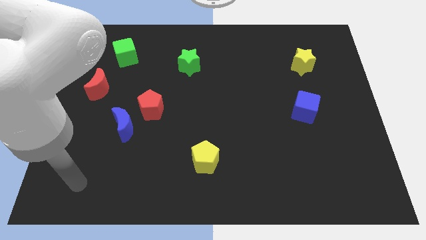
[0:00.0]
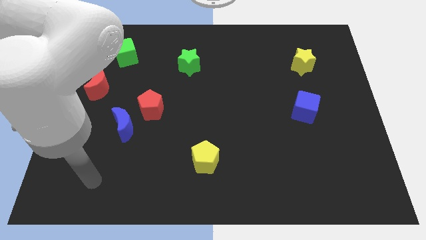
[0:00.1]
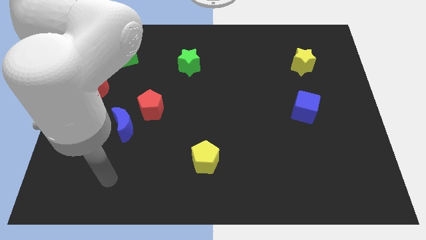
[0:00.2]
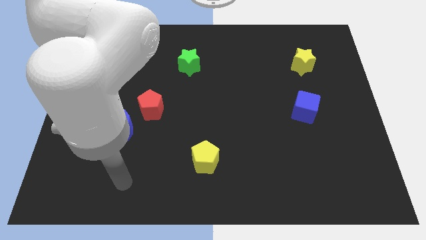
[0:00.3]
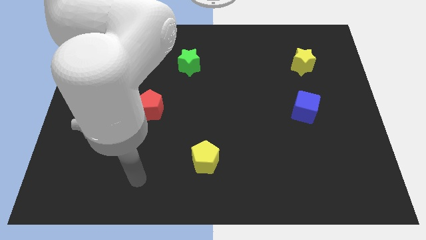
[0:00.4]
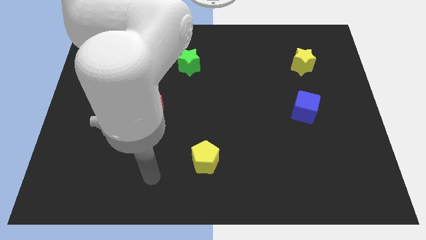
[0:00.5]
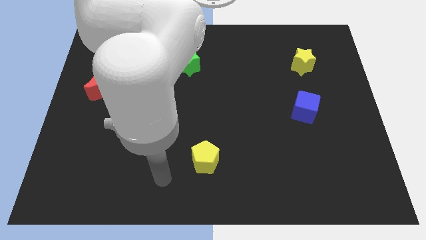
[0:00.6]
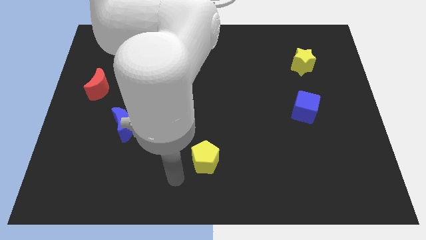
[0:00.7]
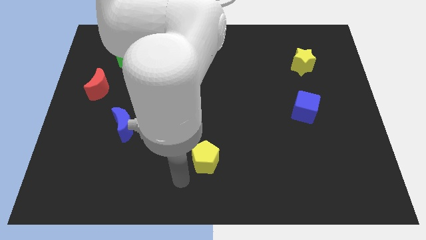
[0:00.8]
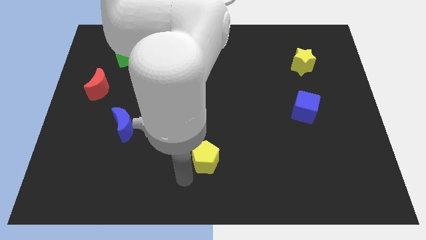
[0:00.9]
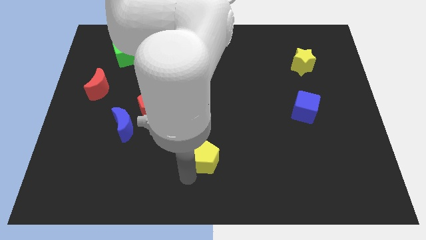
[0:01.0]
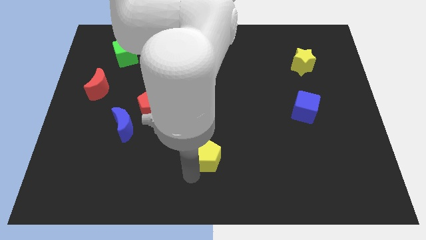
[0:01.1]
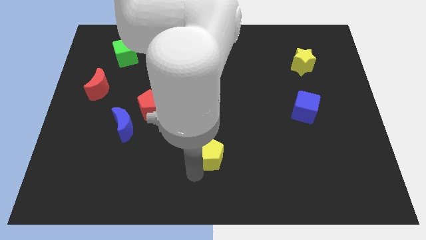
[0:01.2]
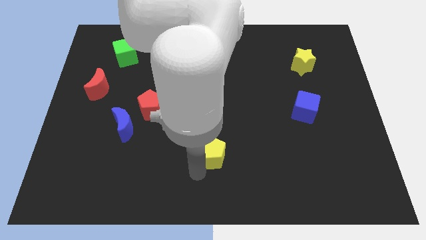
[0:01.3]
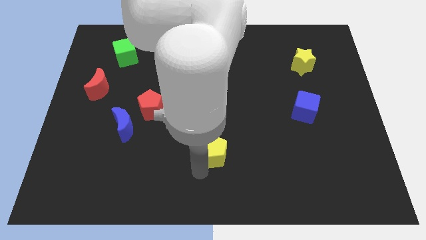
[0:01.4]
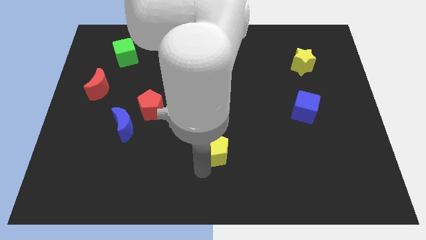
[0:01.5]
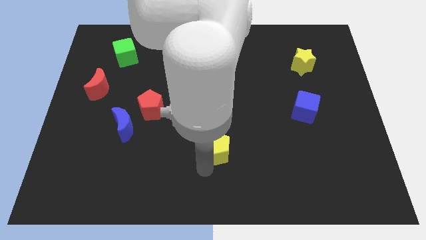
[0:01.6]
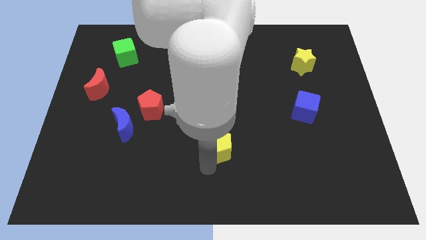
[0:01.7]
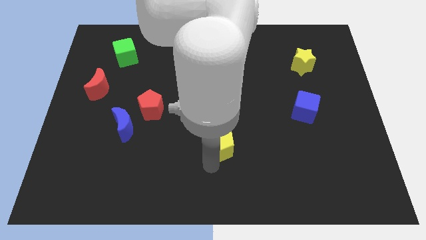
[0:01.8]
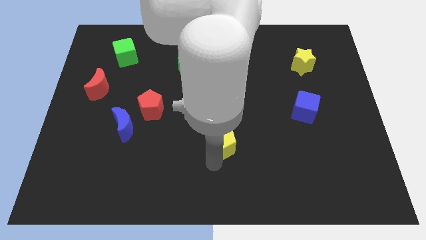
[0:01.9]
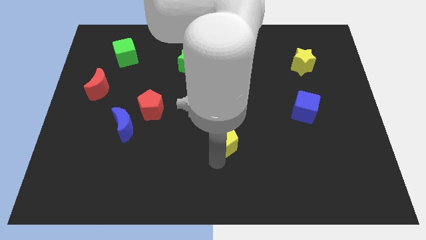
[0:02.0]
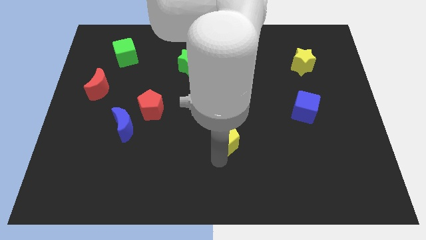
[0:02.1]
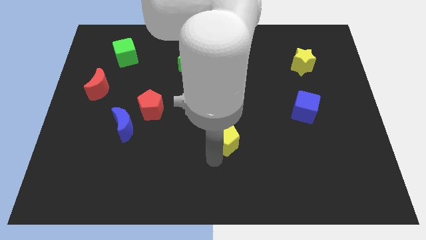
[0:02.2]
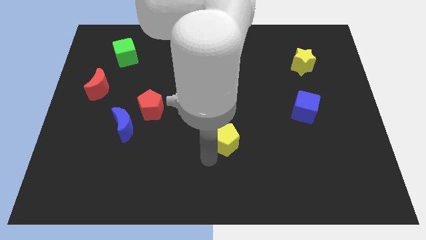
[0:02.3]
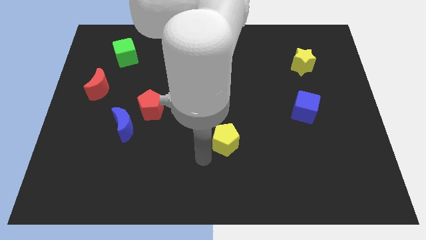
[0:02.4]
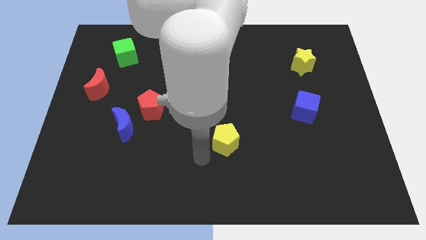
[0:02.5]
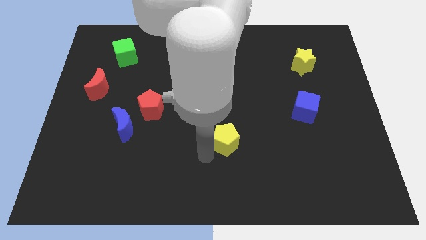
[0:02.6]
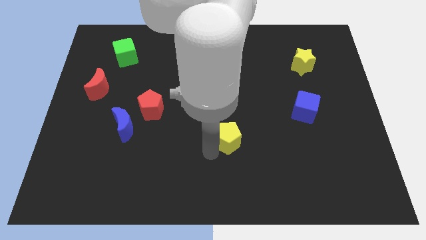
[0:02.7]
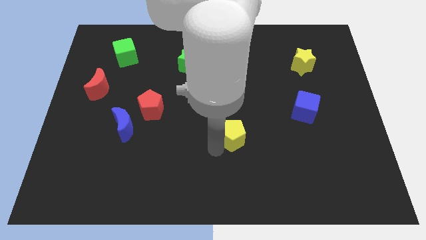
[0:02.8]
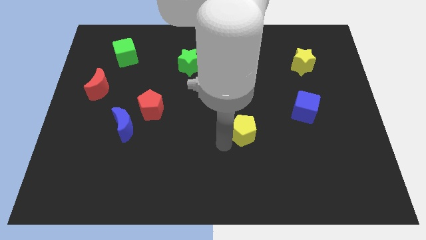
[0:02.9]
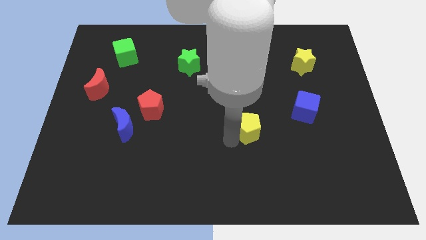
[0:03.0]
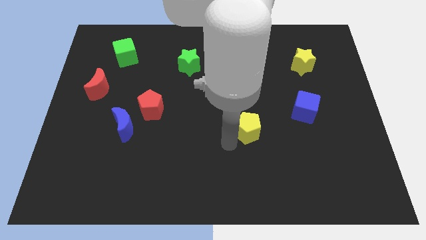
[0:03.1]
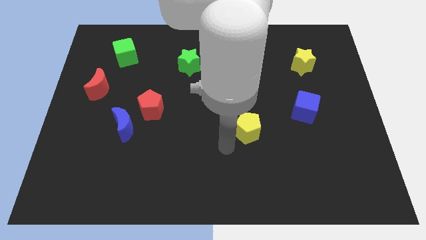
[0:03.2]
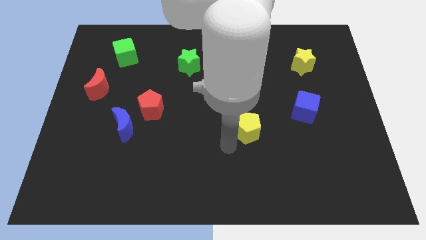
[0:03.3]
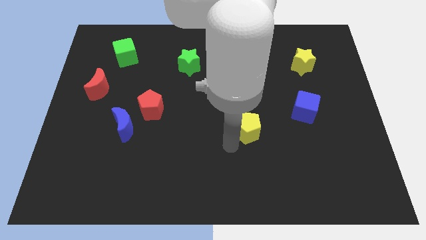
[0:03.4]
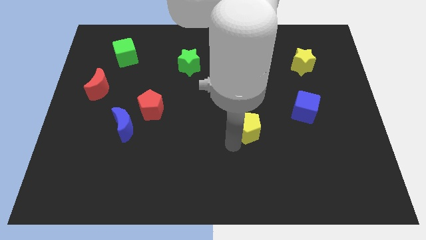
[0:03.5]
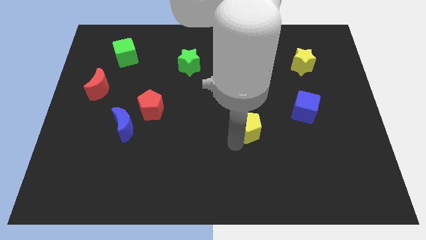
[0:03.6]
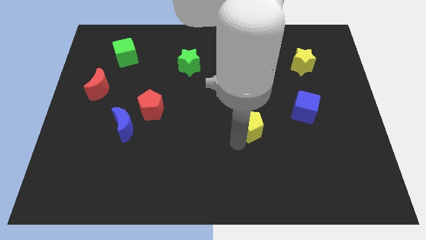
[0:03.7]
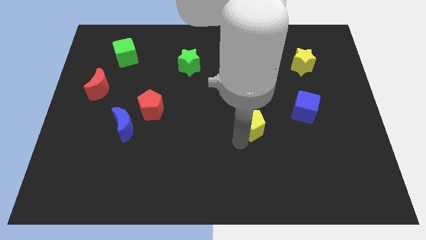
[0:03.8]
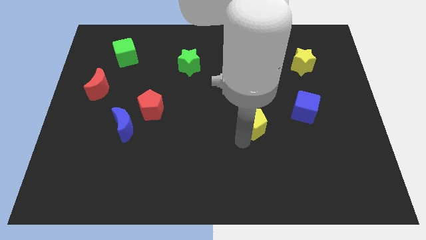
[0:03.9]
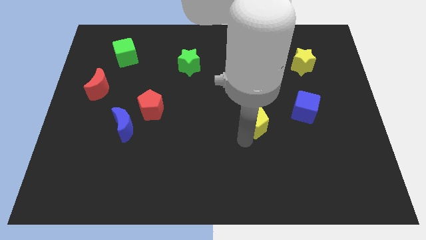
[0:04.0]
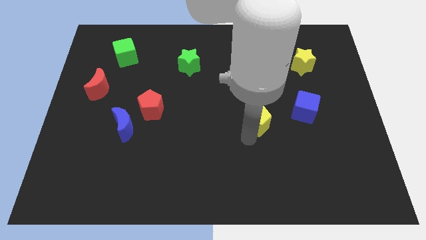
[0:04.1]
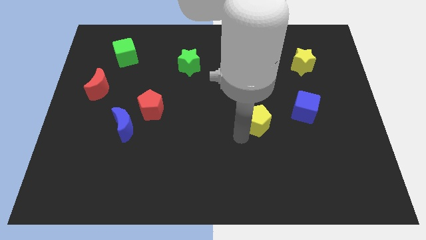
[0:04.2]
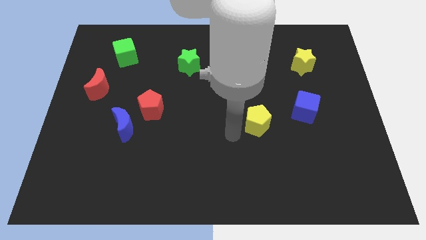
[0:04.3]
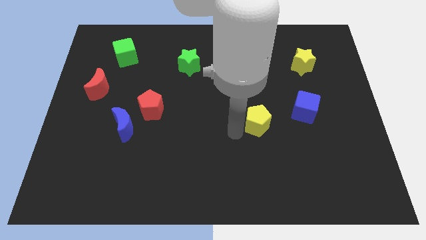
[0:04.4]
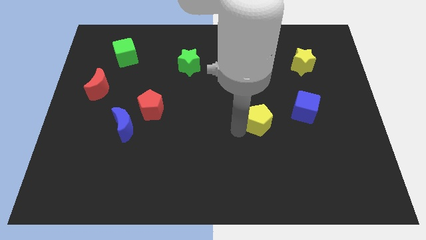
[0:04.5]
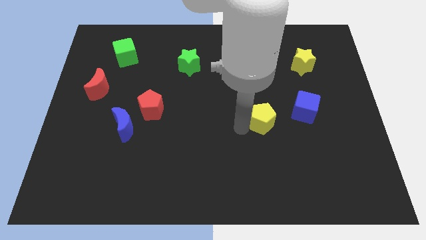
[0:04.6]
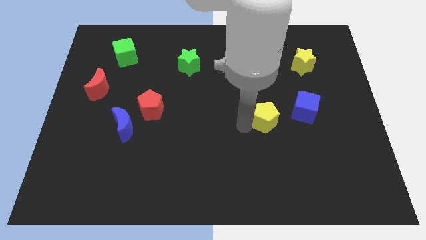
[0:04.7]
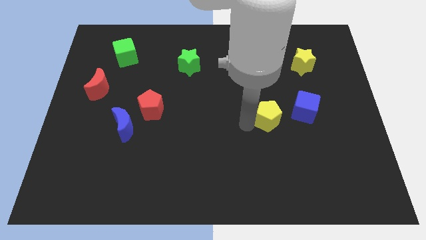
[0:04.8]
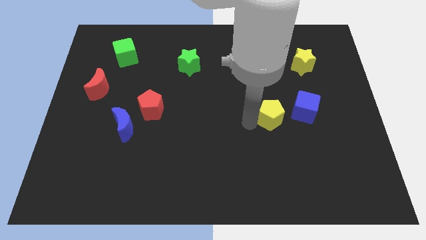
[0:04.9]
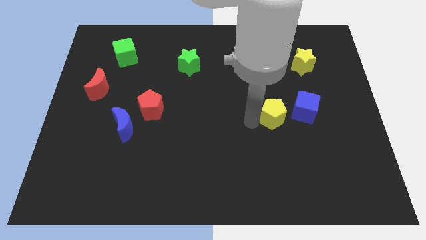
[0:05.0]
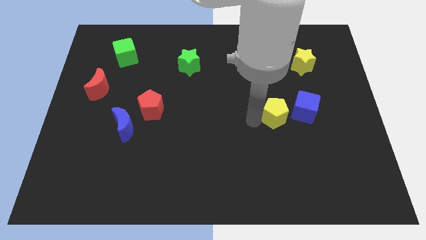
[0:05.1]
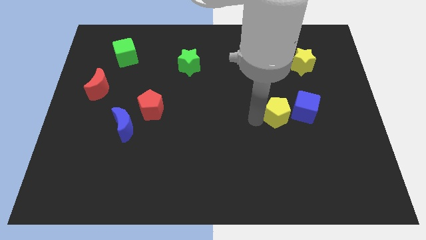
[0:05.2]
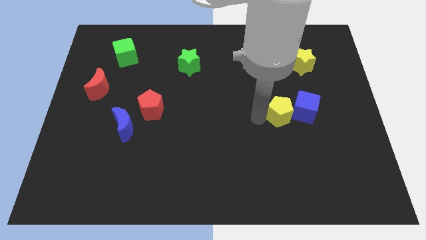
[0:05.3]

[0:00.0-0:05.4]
move the yellow pentagon towards the blue cube

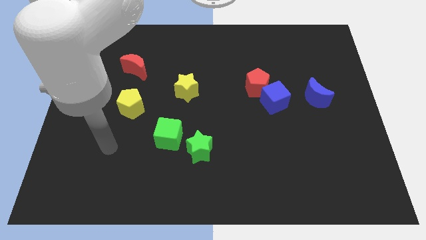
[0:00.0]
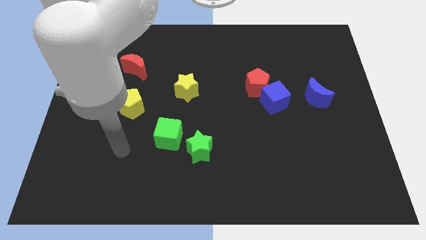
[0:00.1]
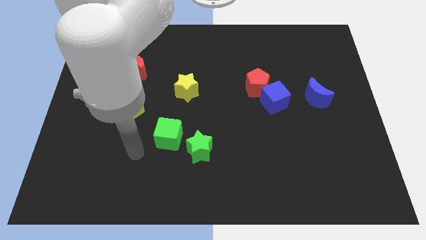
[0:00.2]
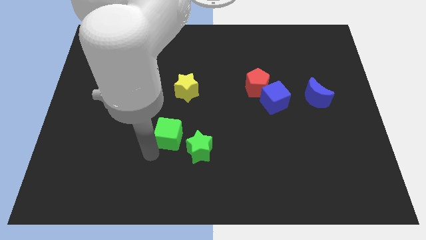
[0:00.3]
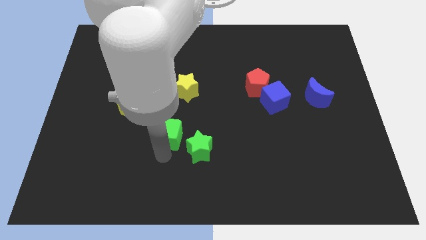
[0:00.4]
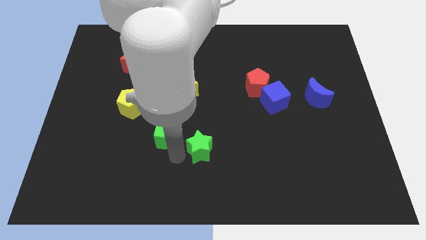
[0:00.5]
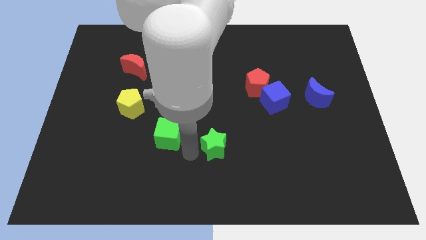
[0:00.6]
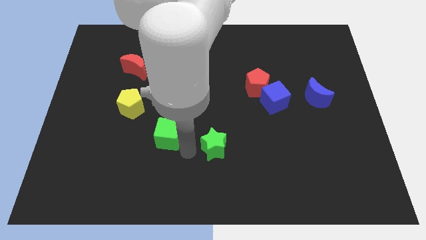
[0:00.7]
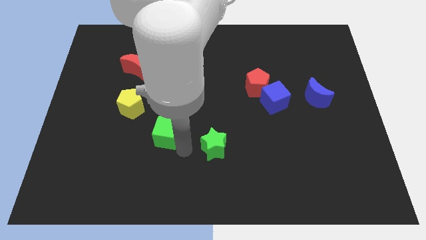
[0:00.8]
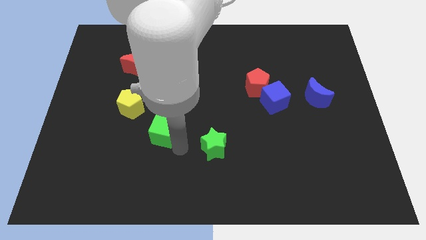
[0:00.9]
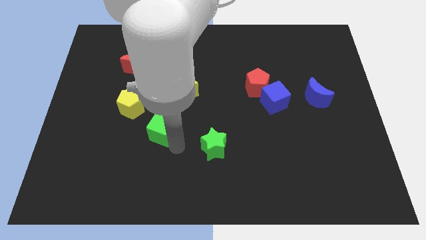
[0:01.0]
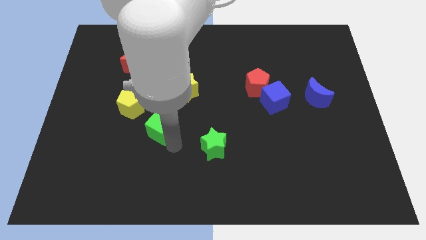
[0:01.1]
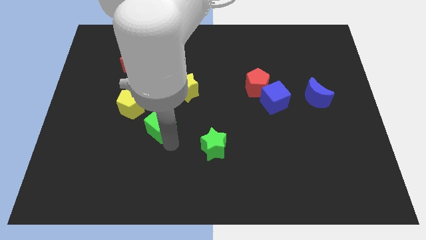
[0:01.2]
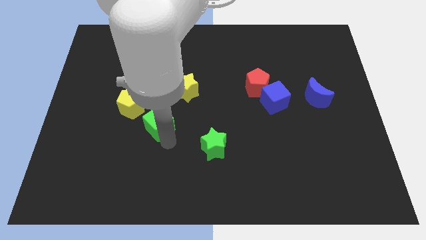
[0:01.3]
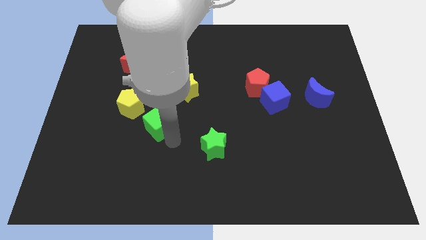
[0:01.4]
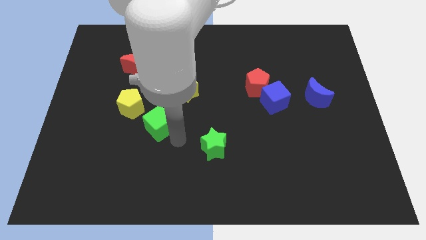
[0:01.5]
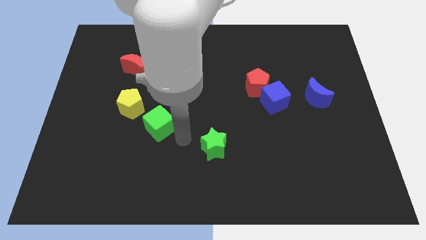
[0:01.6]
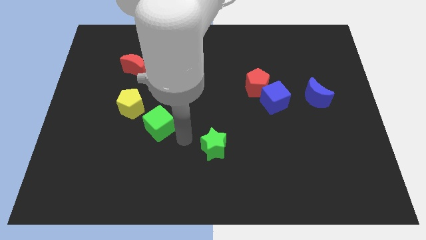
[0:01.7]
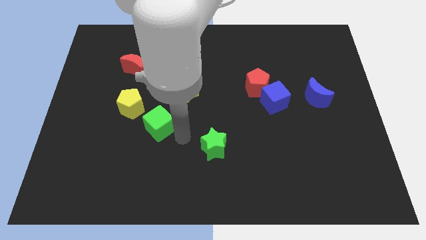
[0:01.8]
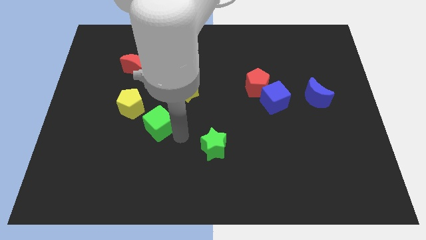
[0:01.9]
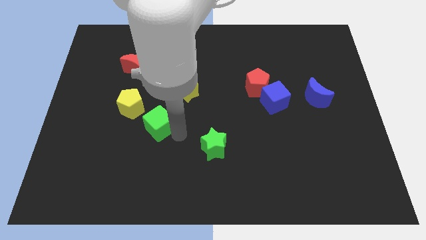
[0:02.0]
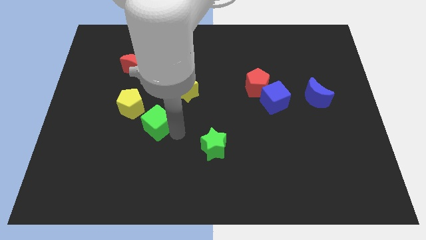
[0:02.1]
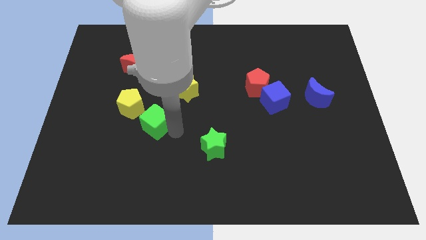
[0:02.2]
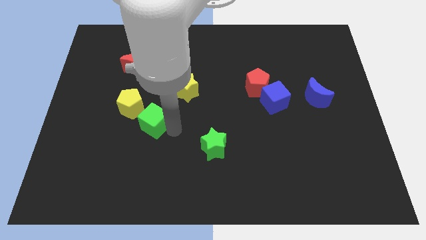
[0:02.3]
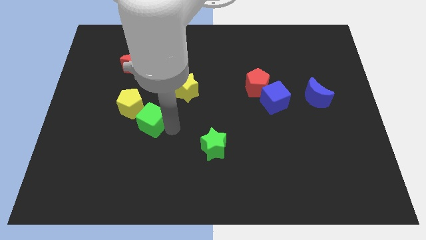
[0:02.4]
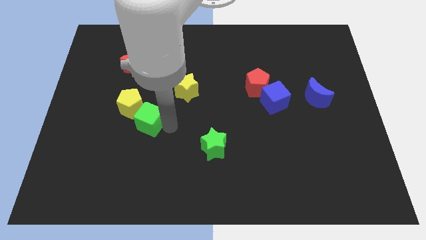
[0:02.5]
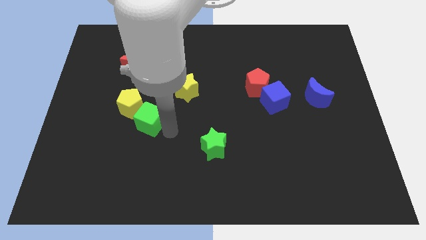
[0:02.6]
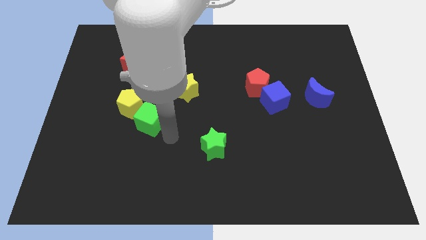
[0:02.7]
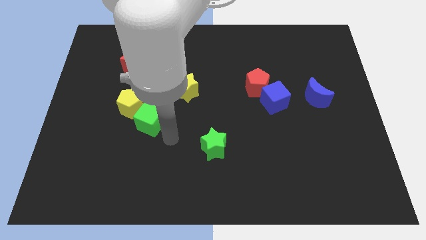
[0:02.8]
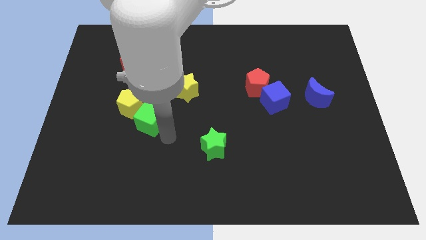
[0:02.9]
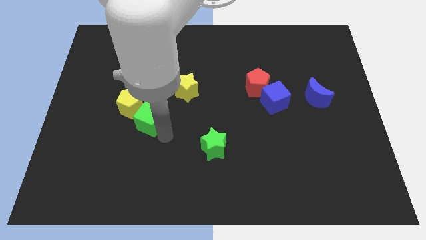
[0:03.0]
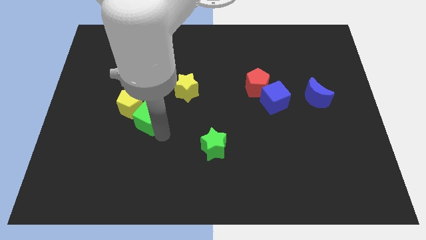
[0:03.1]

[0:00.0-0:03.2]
put the green cube close to the yellow pentagon
